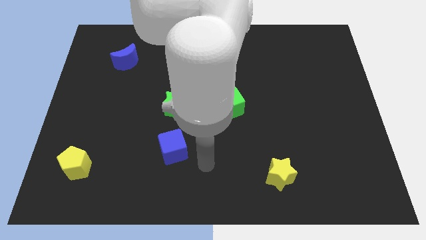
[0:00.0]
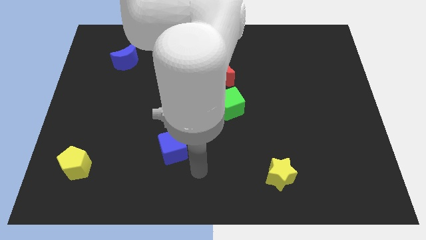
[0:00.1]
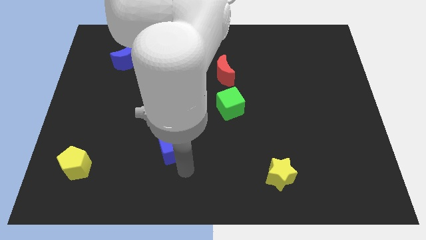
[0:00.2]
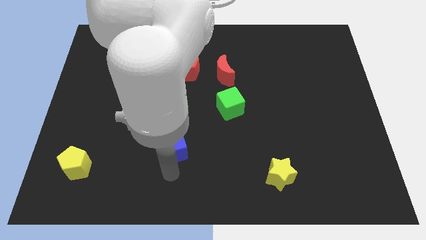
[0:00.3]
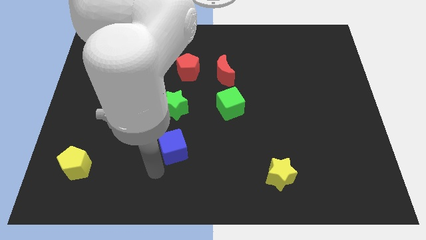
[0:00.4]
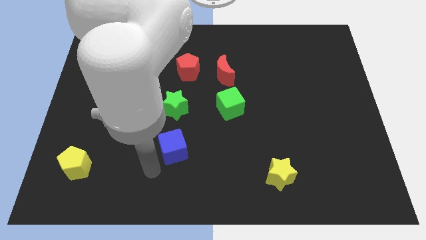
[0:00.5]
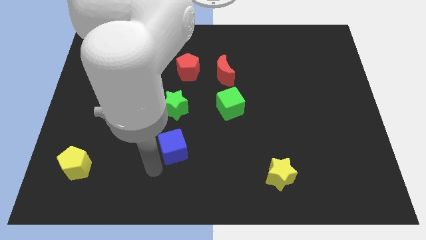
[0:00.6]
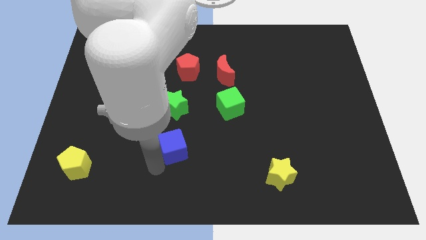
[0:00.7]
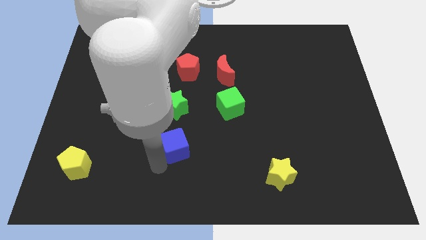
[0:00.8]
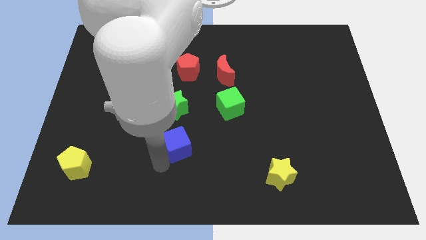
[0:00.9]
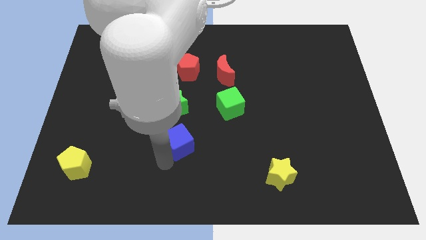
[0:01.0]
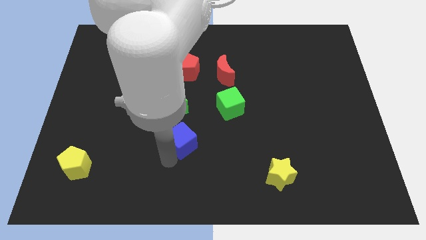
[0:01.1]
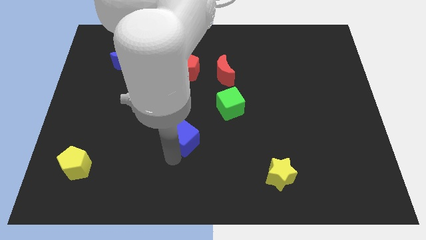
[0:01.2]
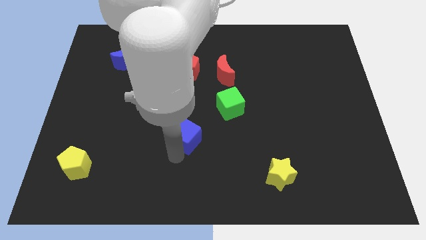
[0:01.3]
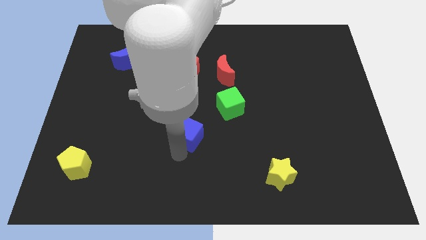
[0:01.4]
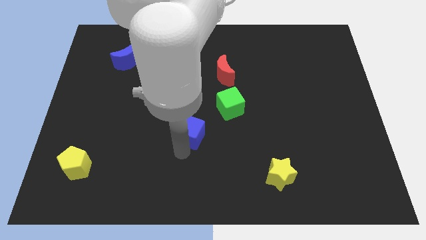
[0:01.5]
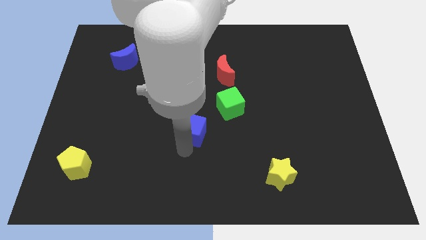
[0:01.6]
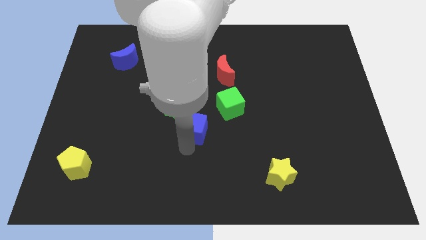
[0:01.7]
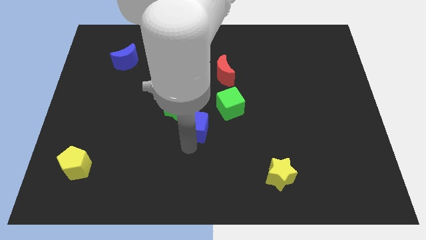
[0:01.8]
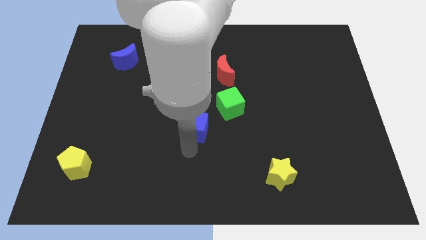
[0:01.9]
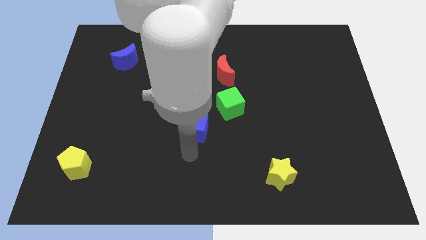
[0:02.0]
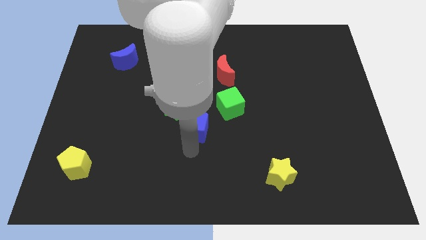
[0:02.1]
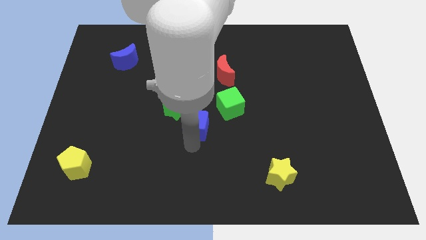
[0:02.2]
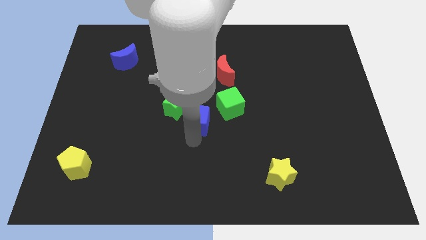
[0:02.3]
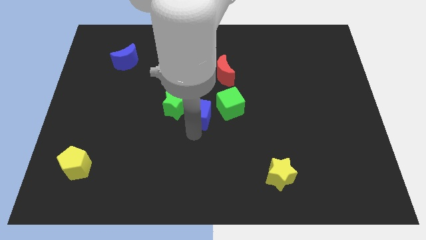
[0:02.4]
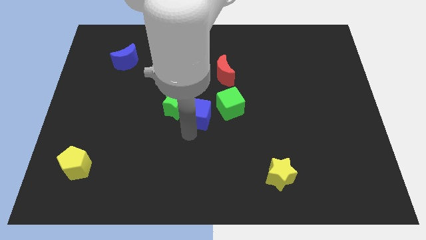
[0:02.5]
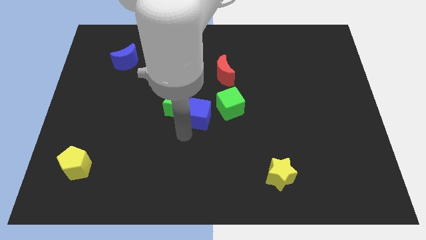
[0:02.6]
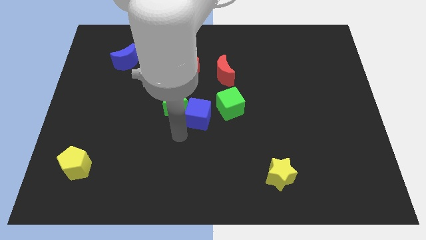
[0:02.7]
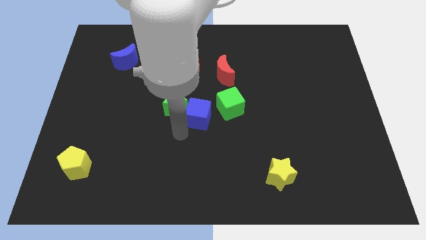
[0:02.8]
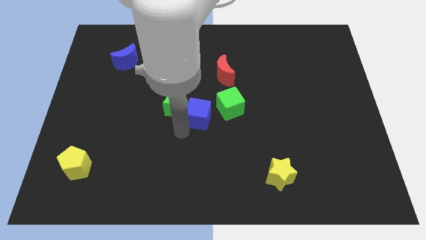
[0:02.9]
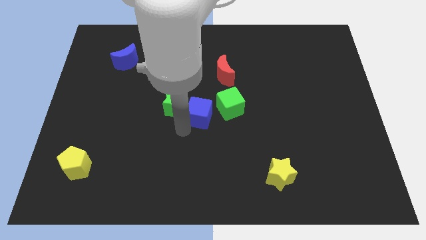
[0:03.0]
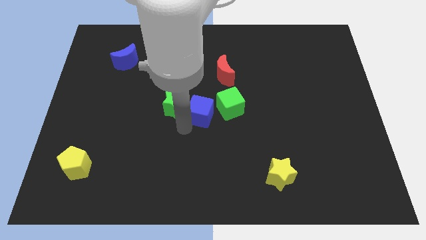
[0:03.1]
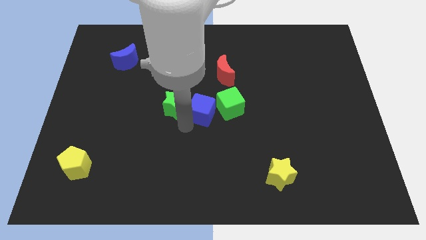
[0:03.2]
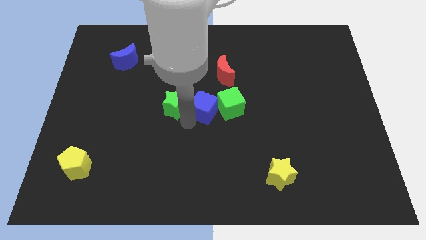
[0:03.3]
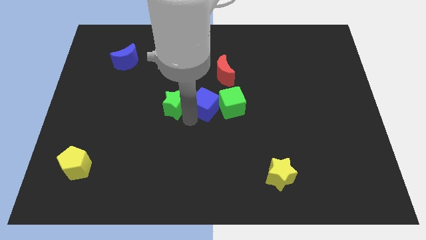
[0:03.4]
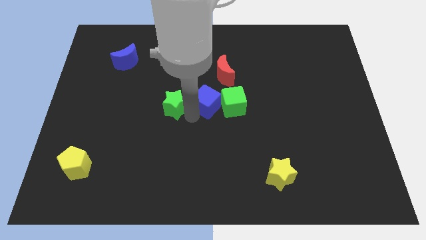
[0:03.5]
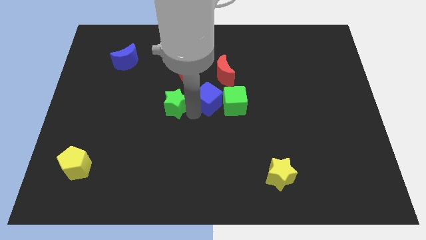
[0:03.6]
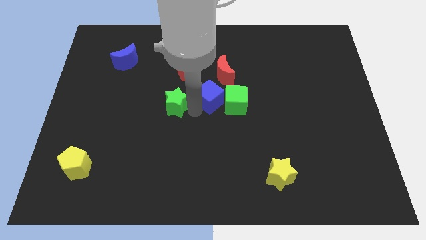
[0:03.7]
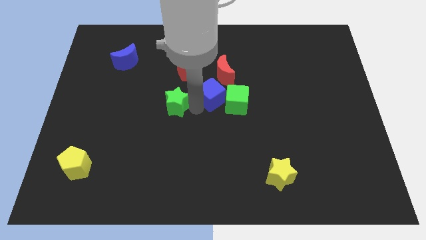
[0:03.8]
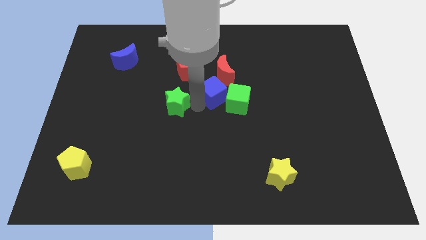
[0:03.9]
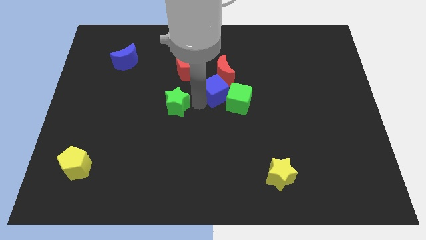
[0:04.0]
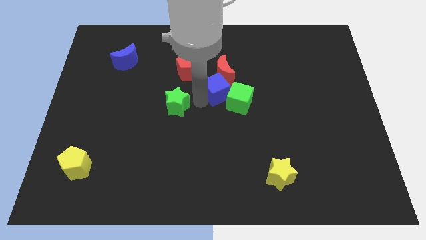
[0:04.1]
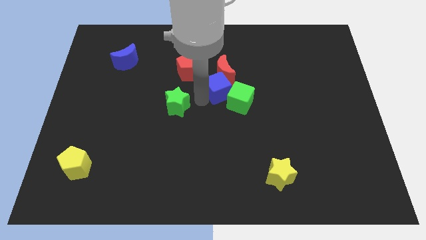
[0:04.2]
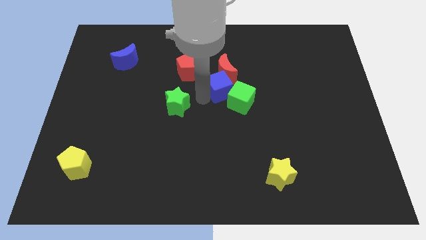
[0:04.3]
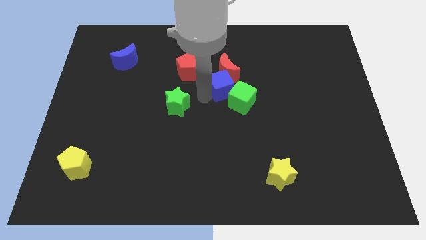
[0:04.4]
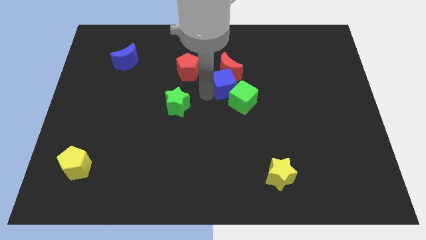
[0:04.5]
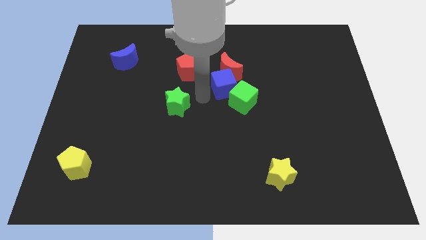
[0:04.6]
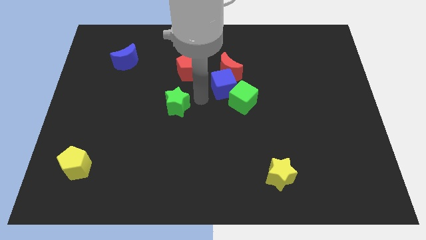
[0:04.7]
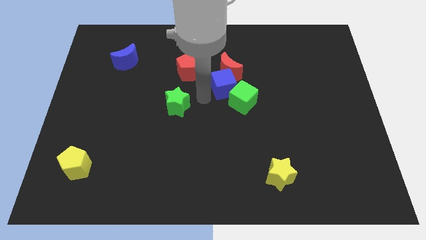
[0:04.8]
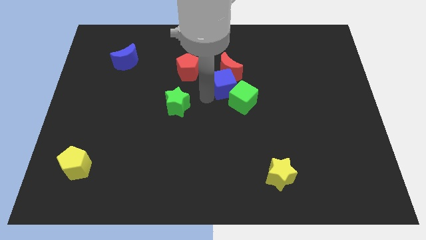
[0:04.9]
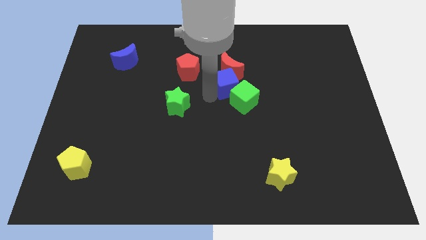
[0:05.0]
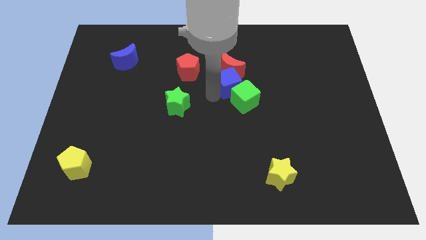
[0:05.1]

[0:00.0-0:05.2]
slide the blue cube right of the red pentagon

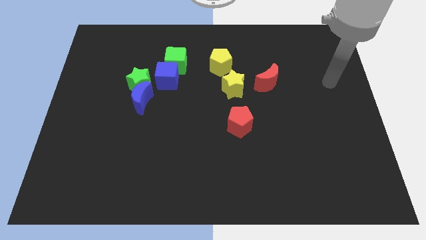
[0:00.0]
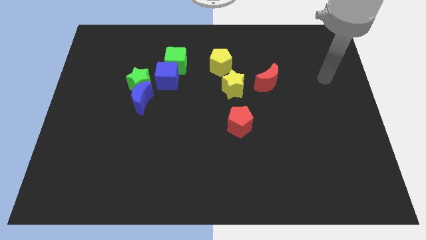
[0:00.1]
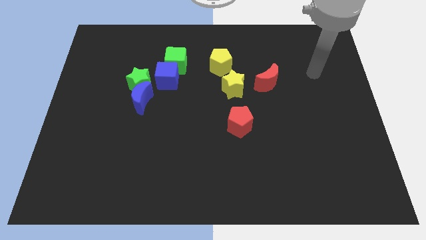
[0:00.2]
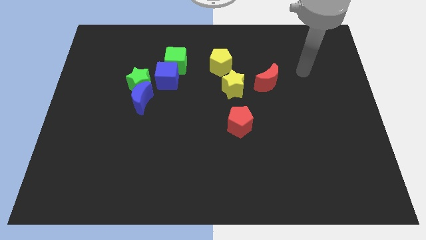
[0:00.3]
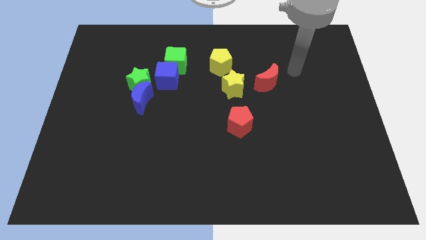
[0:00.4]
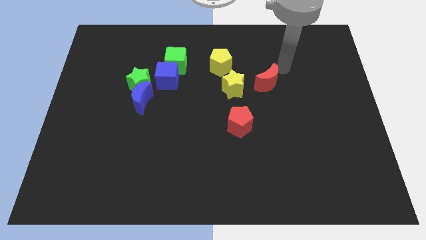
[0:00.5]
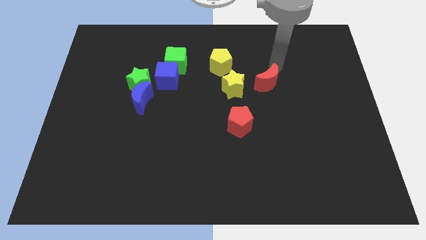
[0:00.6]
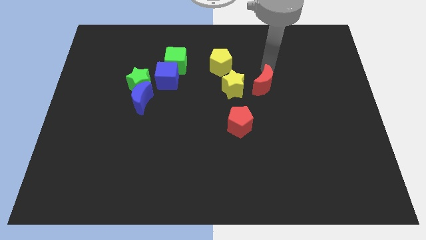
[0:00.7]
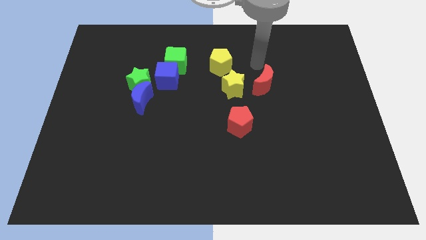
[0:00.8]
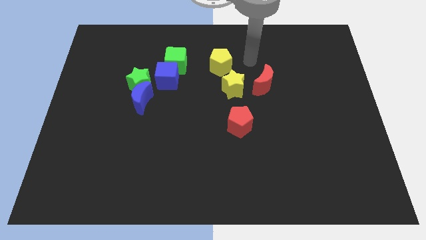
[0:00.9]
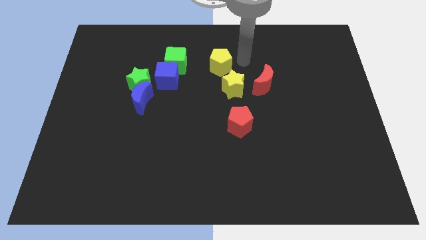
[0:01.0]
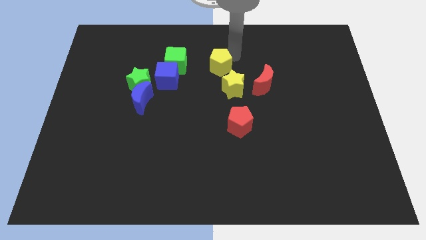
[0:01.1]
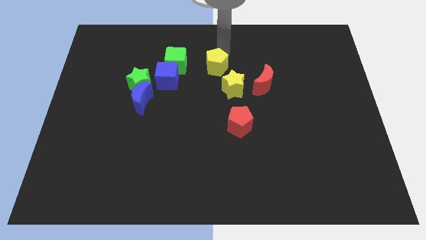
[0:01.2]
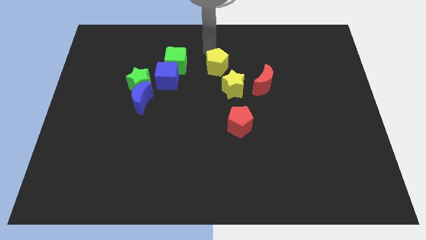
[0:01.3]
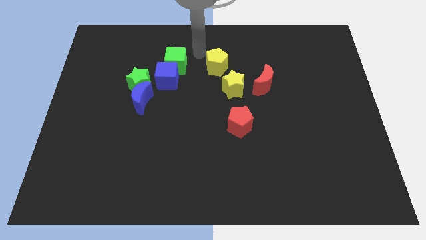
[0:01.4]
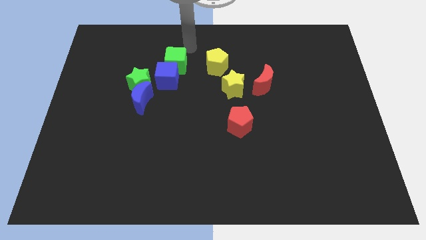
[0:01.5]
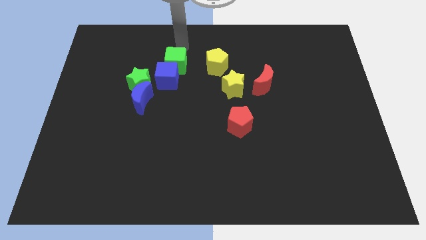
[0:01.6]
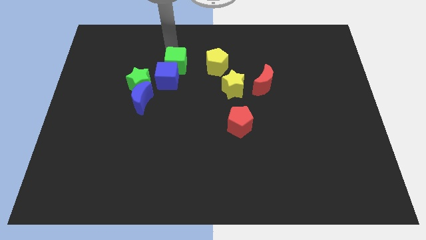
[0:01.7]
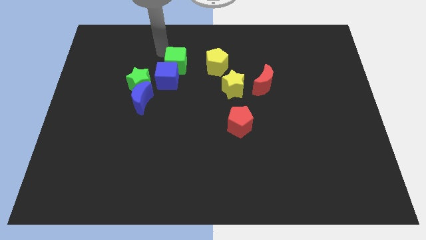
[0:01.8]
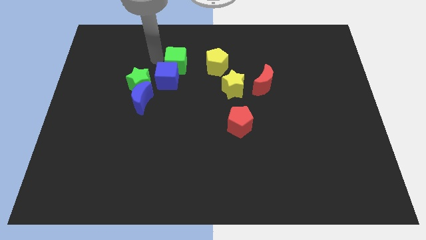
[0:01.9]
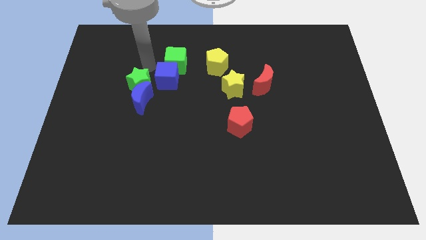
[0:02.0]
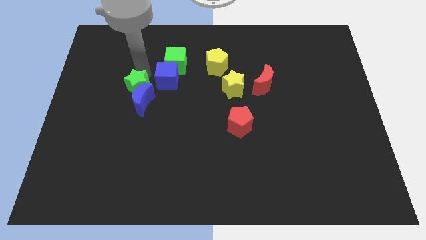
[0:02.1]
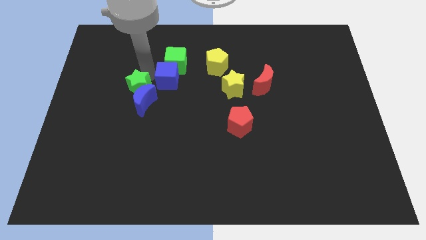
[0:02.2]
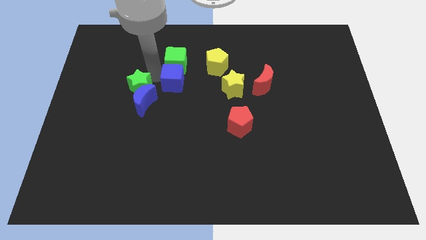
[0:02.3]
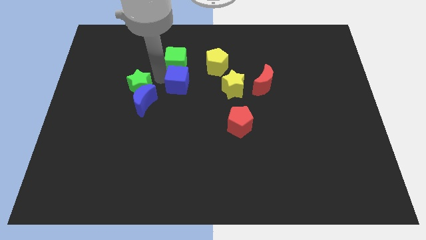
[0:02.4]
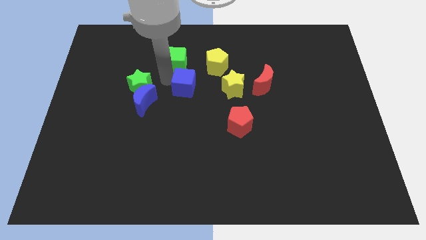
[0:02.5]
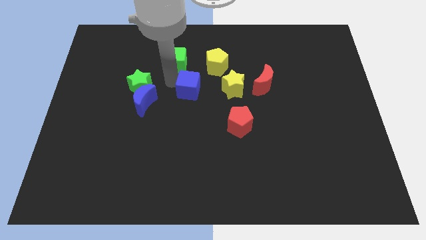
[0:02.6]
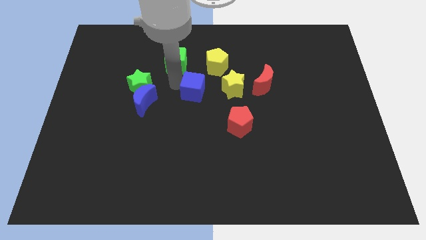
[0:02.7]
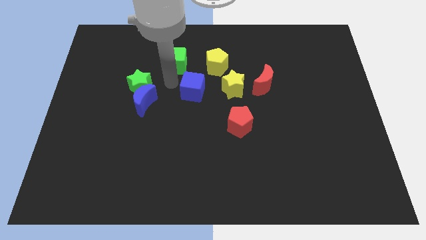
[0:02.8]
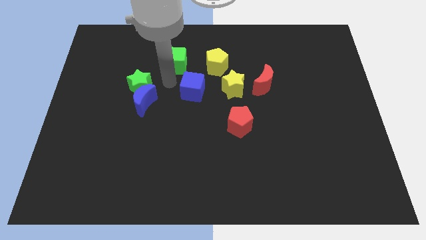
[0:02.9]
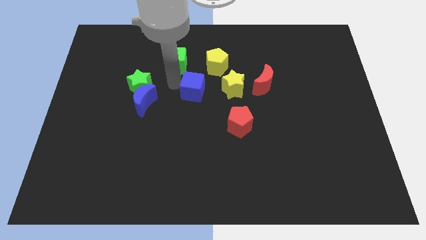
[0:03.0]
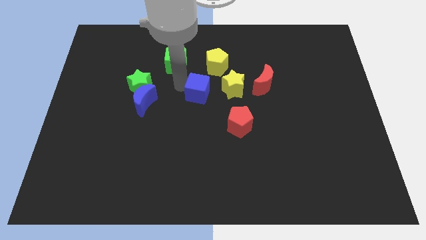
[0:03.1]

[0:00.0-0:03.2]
slide the blue cube below the yellow pentagon
